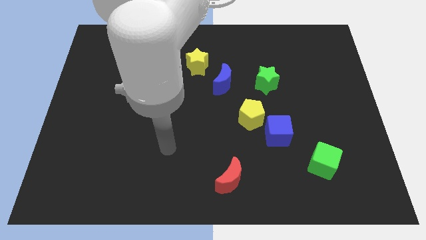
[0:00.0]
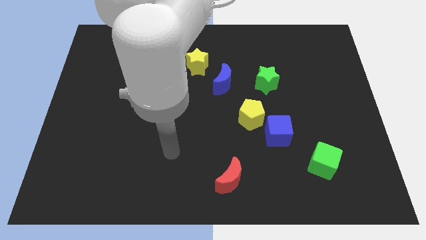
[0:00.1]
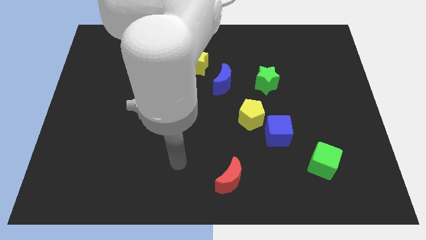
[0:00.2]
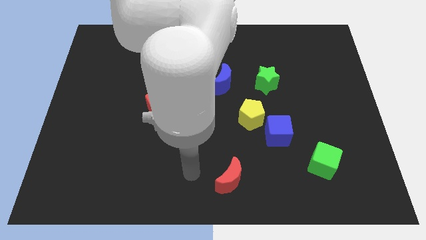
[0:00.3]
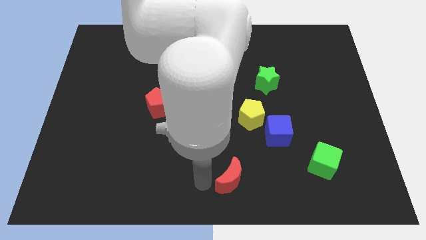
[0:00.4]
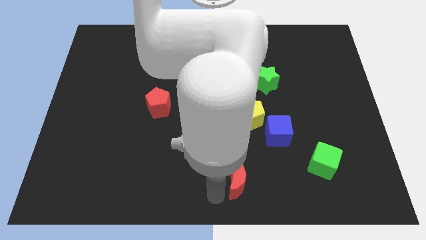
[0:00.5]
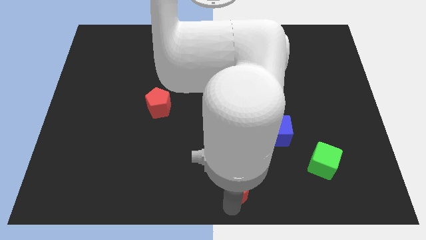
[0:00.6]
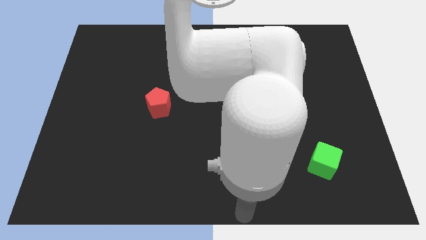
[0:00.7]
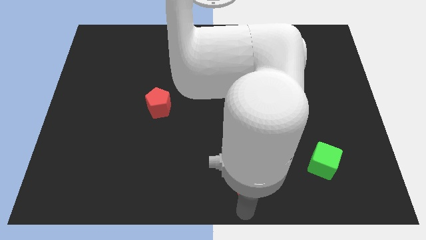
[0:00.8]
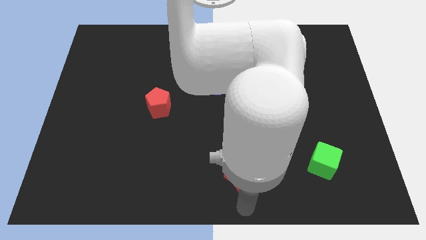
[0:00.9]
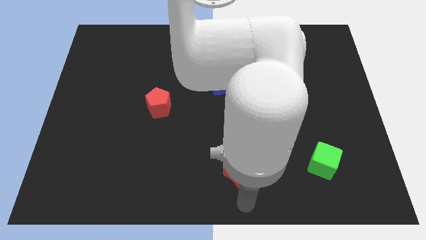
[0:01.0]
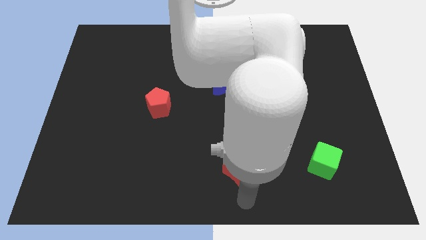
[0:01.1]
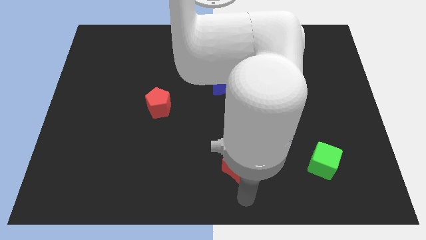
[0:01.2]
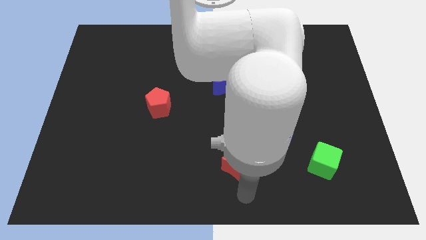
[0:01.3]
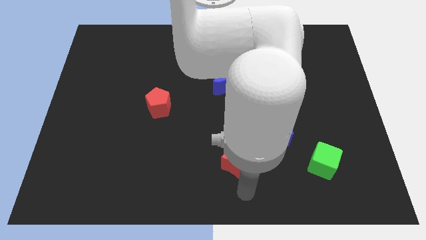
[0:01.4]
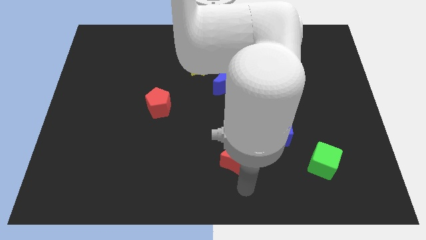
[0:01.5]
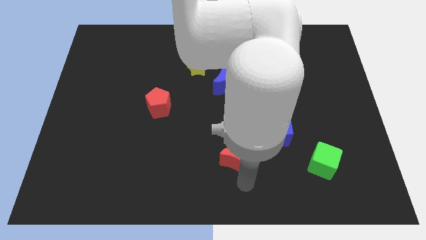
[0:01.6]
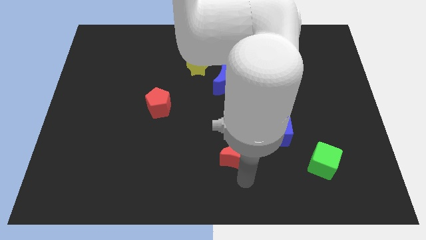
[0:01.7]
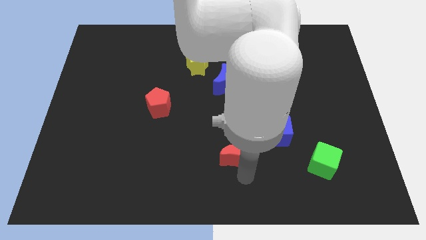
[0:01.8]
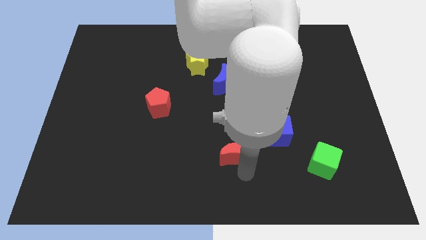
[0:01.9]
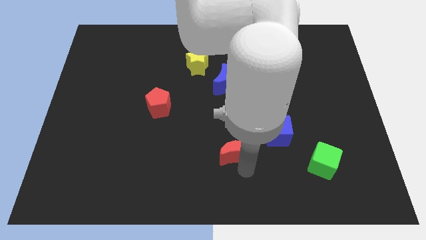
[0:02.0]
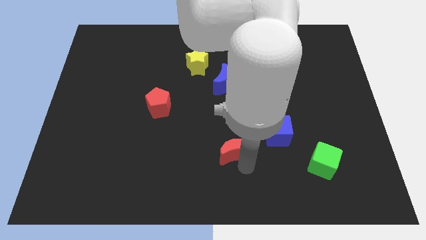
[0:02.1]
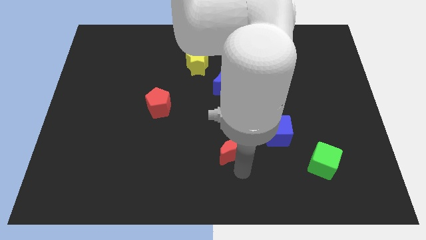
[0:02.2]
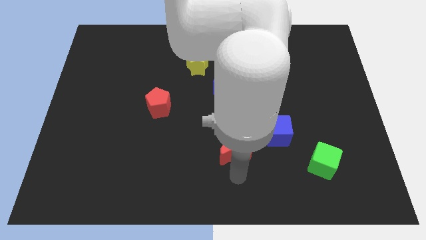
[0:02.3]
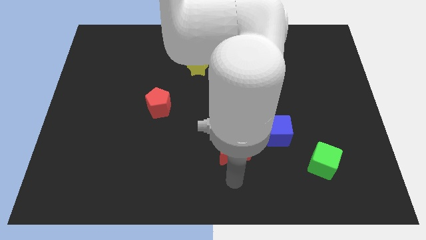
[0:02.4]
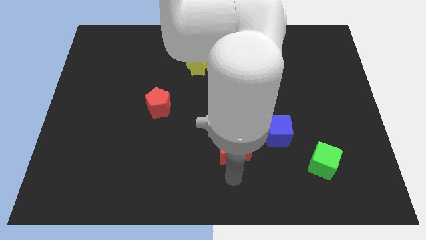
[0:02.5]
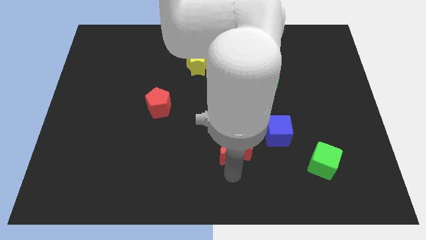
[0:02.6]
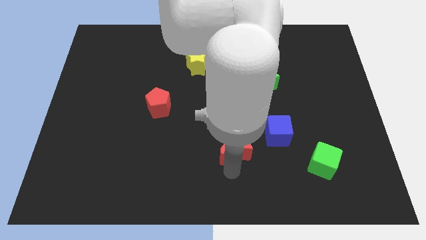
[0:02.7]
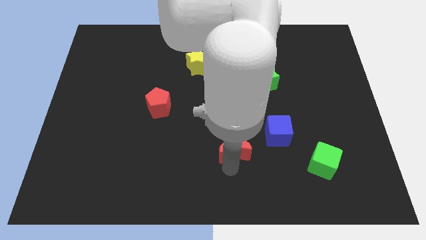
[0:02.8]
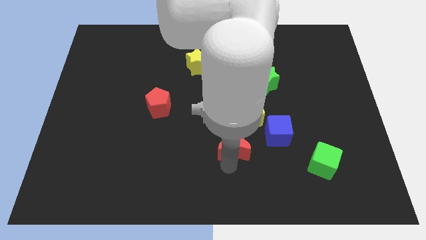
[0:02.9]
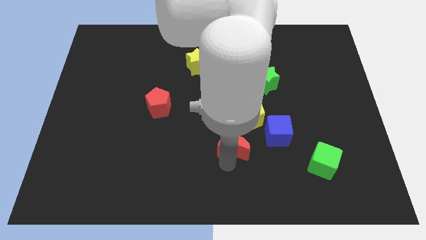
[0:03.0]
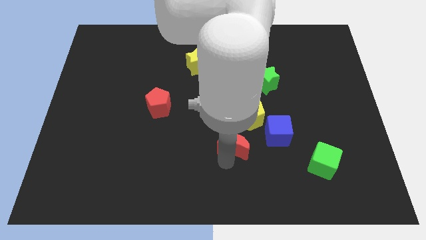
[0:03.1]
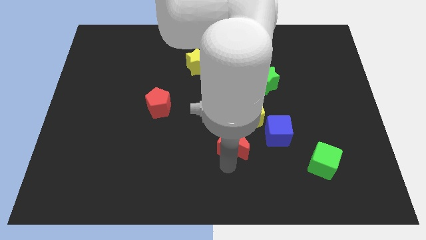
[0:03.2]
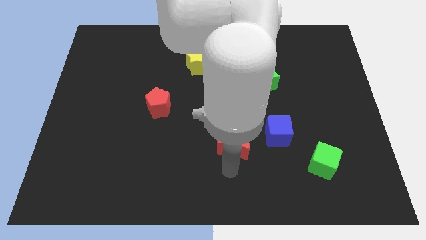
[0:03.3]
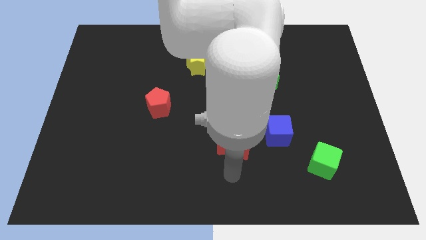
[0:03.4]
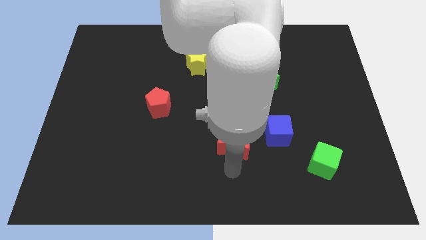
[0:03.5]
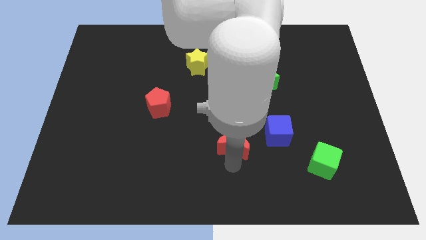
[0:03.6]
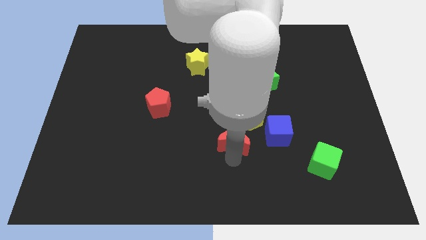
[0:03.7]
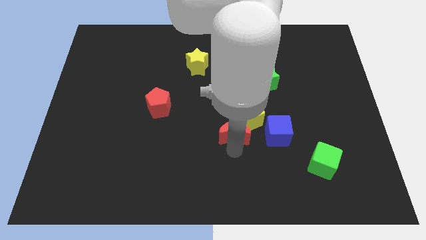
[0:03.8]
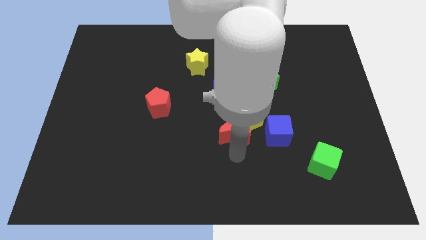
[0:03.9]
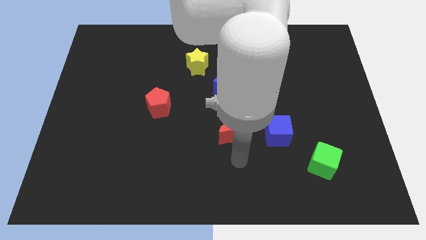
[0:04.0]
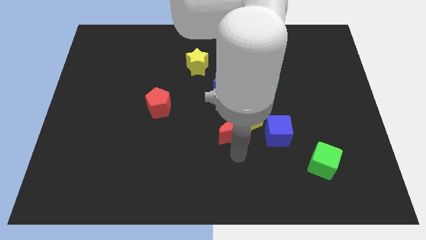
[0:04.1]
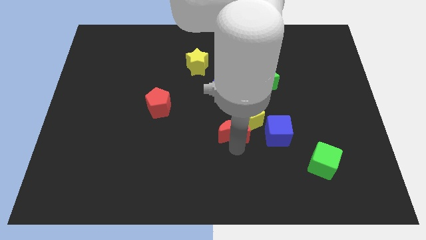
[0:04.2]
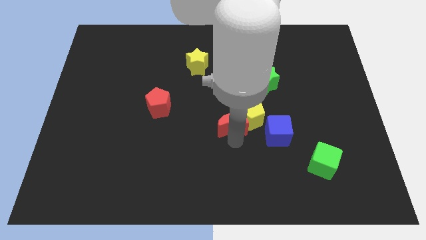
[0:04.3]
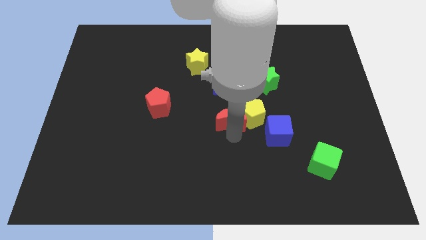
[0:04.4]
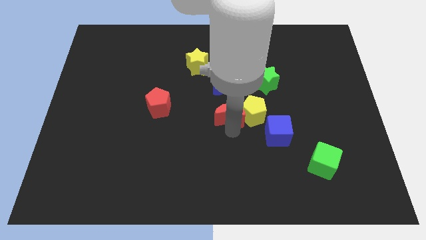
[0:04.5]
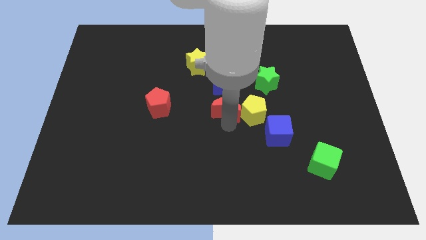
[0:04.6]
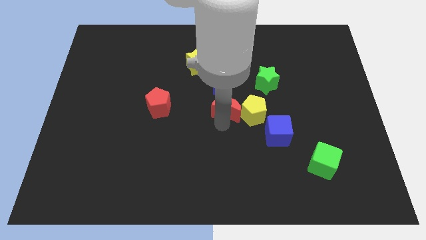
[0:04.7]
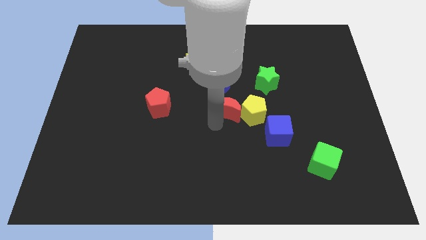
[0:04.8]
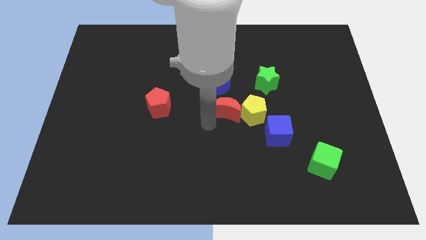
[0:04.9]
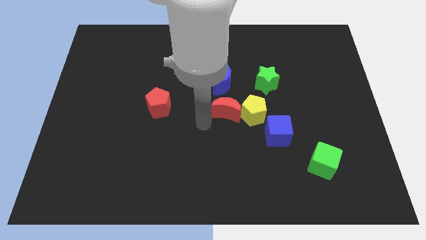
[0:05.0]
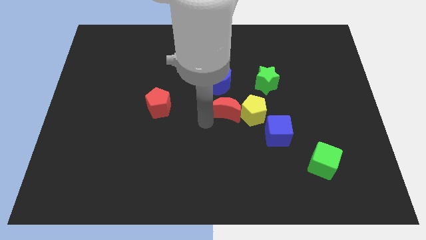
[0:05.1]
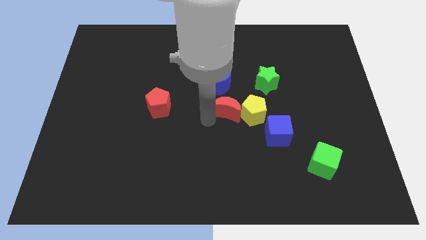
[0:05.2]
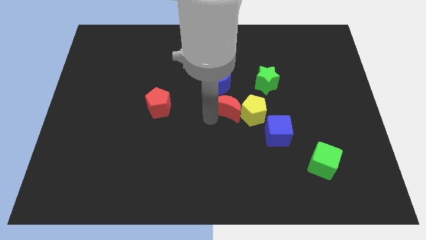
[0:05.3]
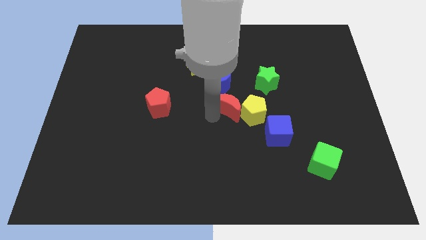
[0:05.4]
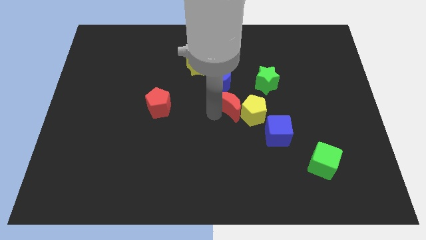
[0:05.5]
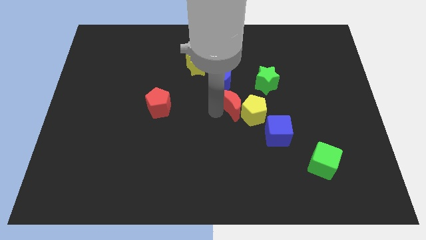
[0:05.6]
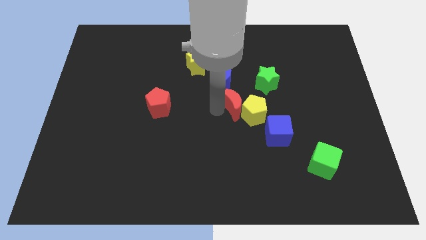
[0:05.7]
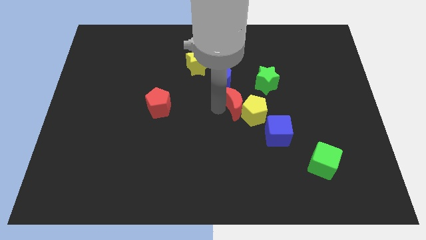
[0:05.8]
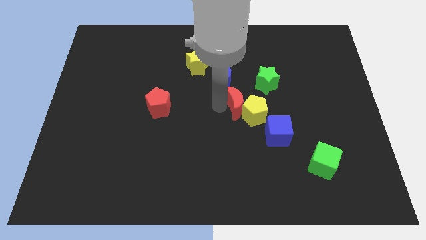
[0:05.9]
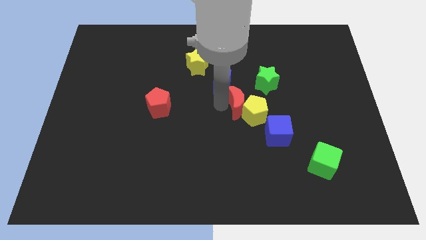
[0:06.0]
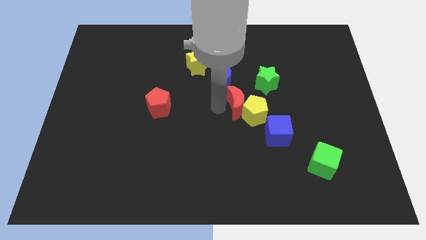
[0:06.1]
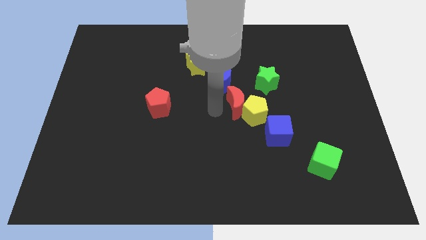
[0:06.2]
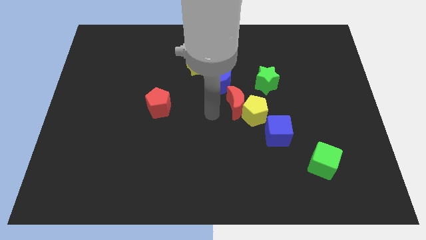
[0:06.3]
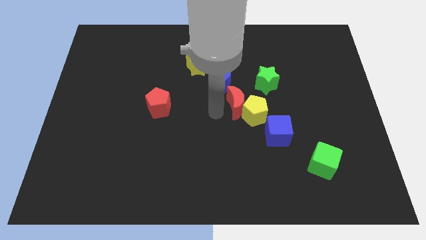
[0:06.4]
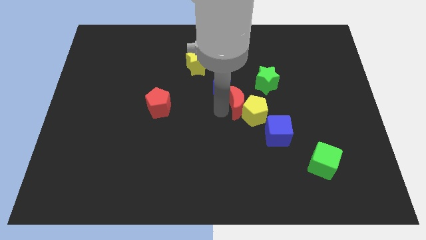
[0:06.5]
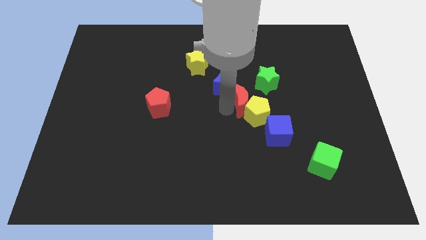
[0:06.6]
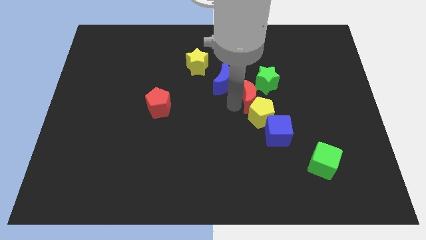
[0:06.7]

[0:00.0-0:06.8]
push the red moon to the right of the blue moon
